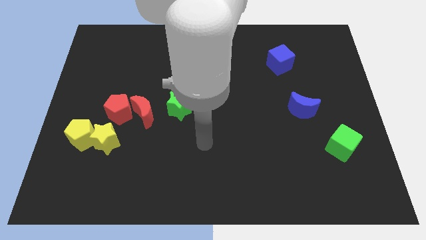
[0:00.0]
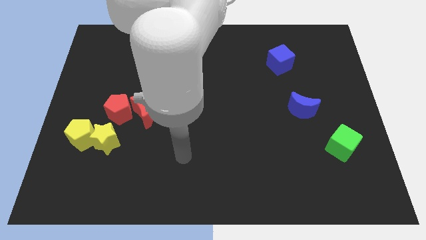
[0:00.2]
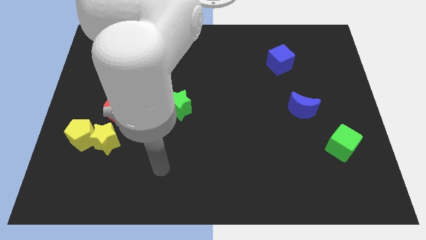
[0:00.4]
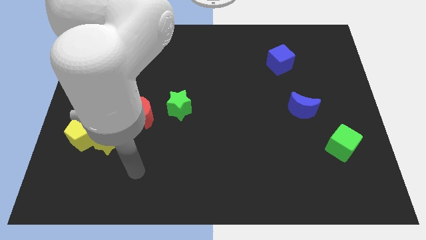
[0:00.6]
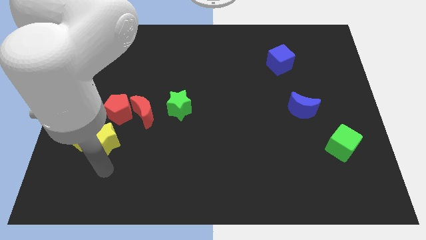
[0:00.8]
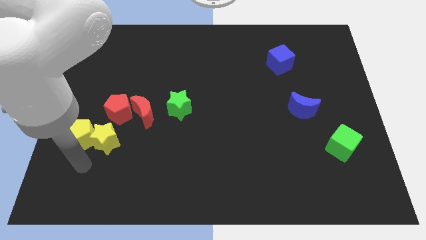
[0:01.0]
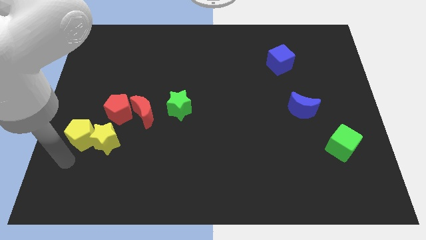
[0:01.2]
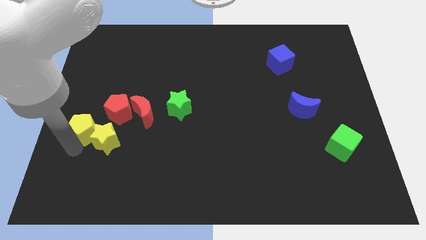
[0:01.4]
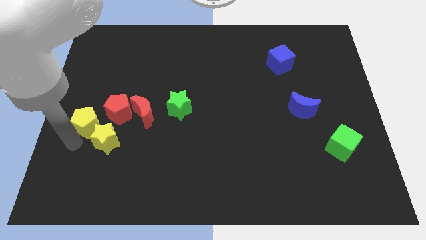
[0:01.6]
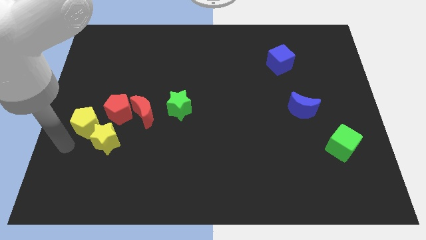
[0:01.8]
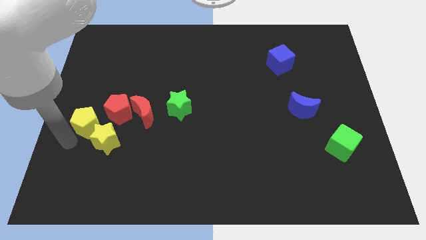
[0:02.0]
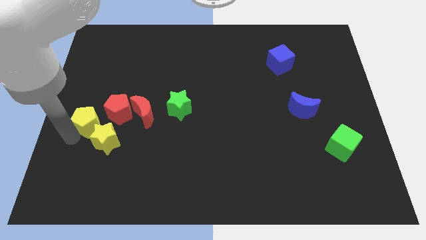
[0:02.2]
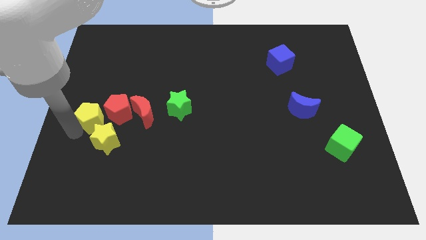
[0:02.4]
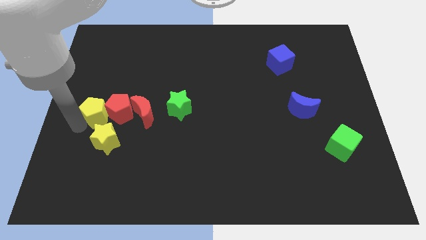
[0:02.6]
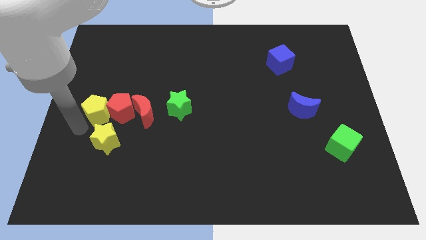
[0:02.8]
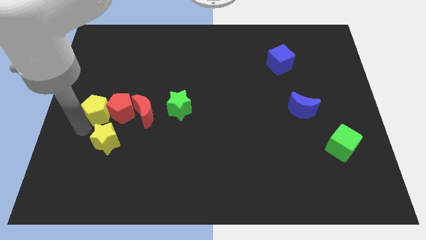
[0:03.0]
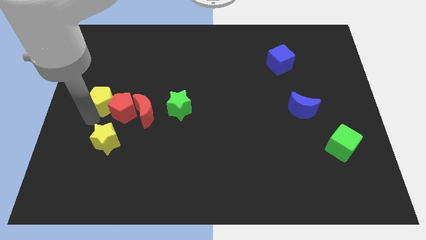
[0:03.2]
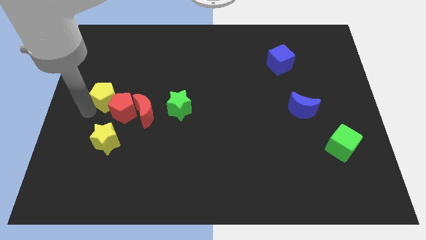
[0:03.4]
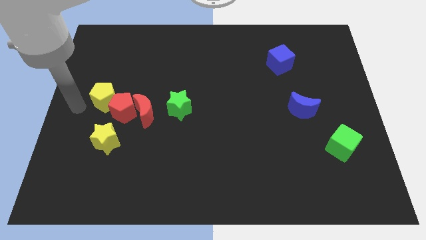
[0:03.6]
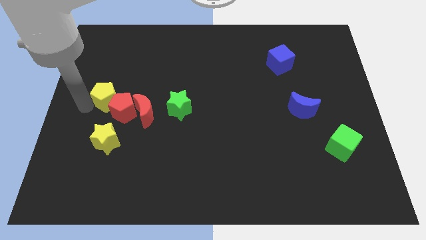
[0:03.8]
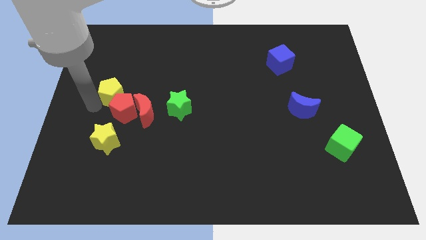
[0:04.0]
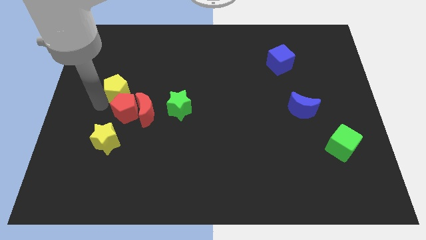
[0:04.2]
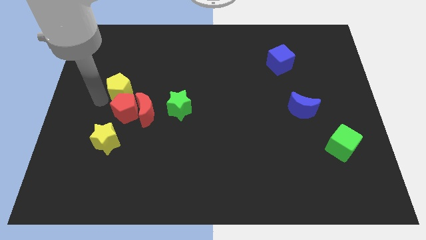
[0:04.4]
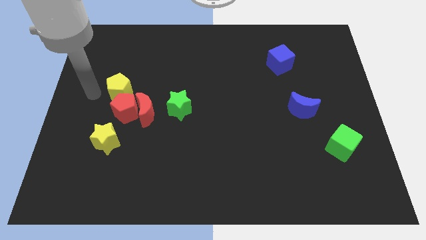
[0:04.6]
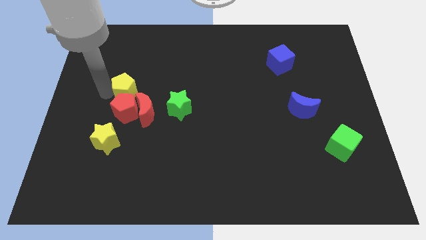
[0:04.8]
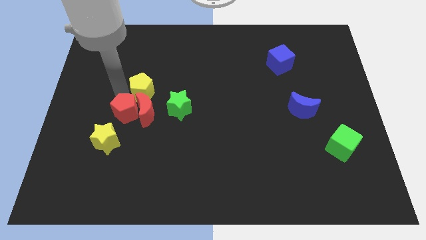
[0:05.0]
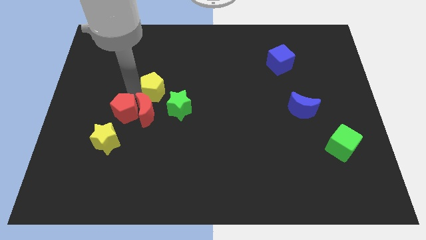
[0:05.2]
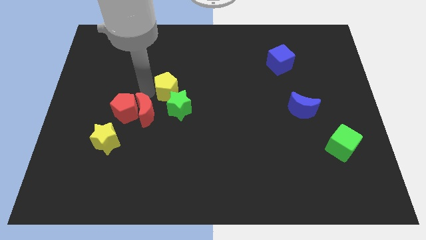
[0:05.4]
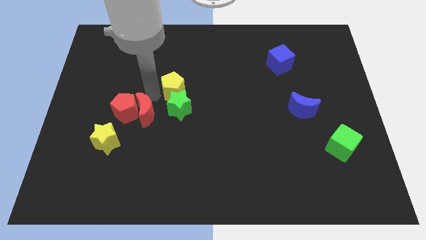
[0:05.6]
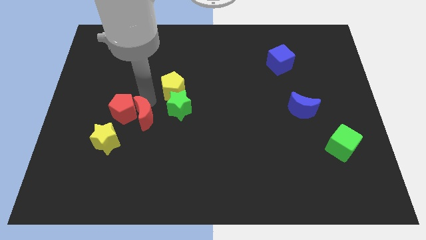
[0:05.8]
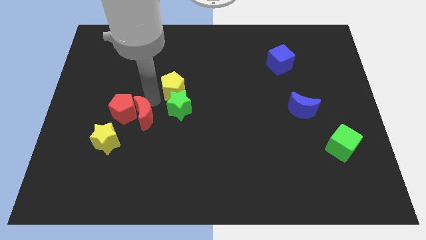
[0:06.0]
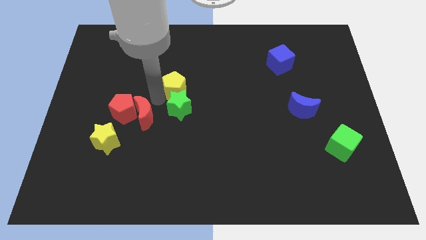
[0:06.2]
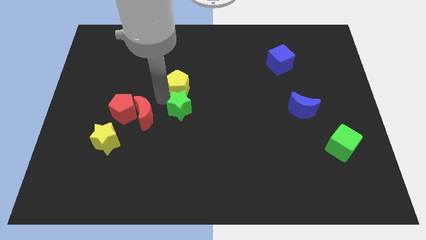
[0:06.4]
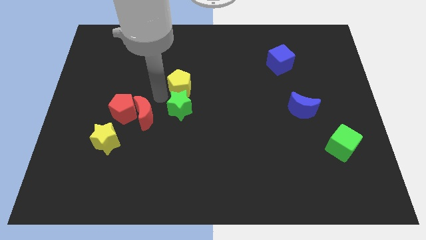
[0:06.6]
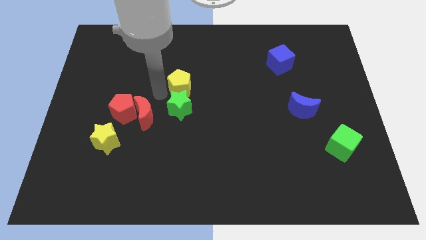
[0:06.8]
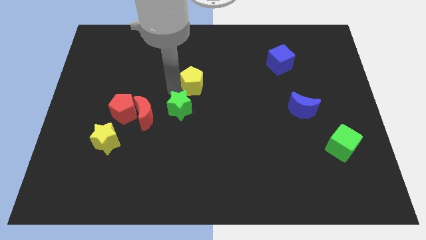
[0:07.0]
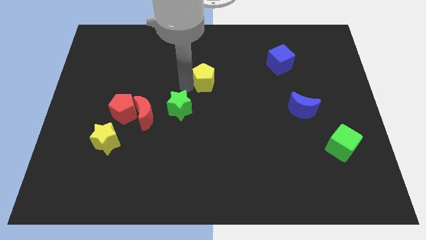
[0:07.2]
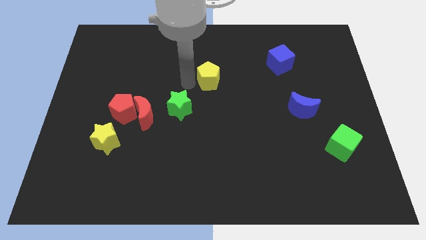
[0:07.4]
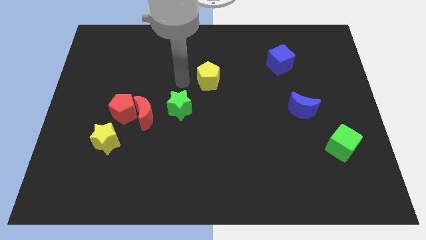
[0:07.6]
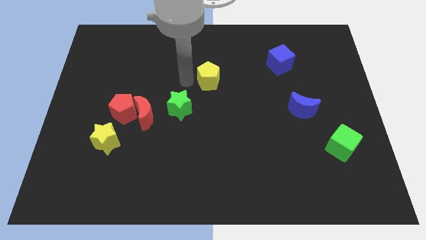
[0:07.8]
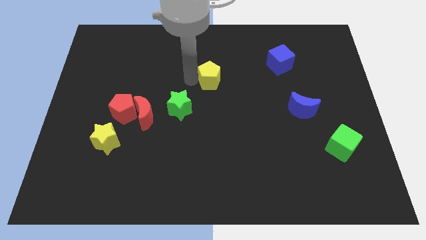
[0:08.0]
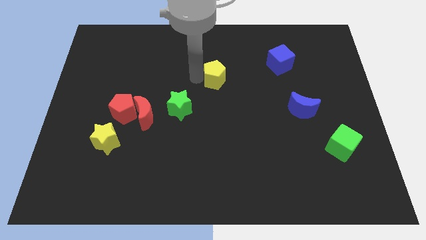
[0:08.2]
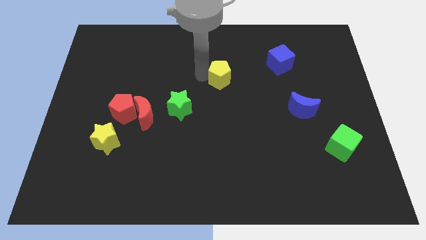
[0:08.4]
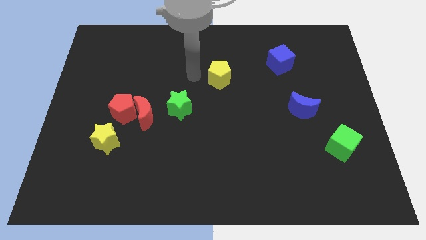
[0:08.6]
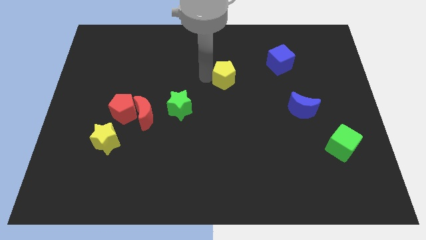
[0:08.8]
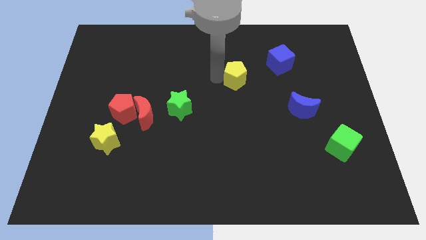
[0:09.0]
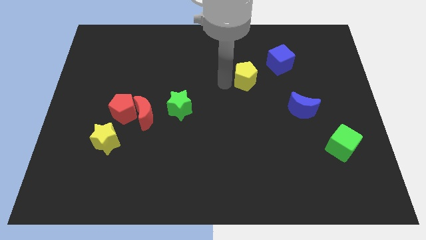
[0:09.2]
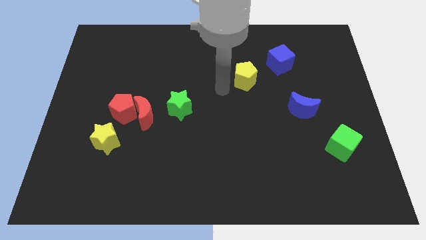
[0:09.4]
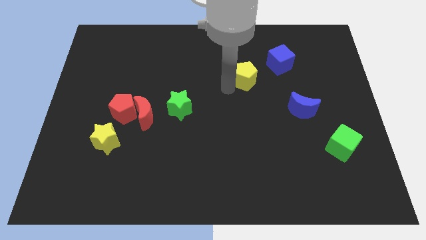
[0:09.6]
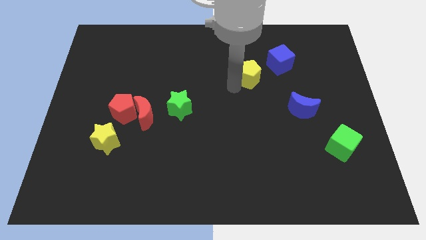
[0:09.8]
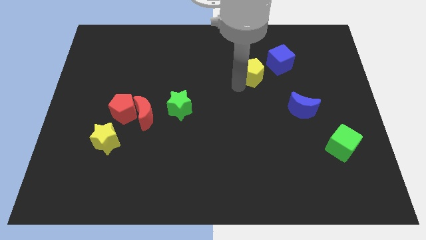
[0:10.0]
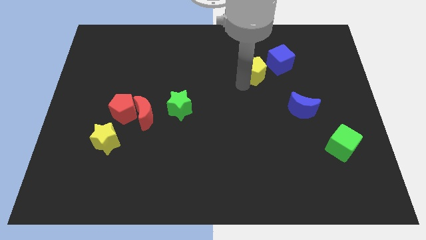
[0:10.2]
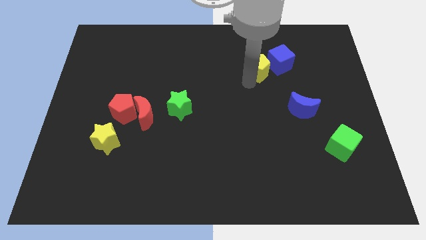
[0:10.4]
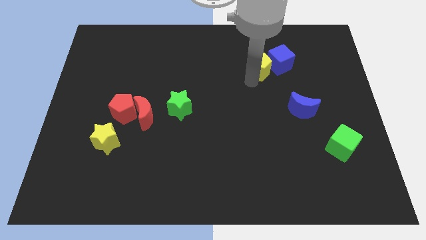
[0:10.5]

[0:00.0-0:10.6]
slide the yellow pentagon towards the blue cube

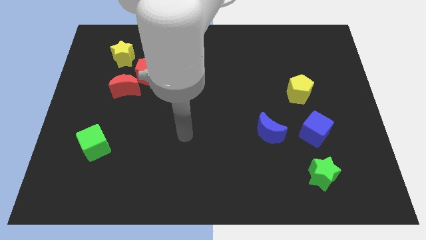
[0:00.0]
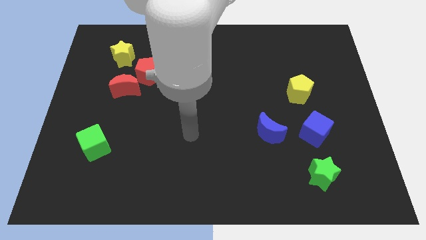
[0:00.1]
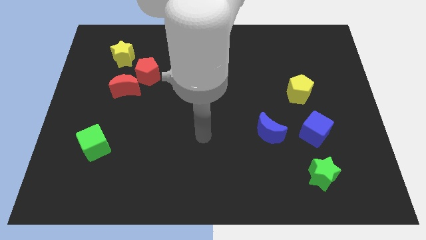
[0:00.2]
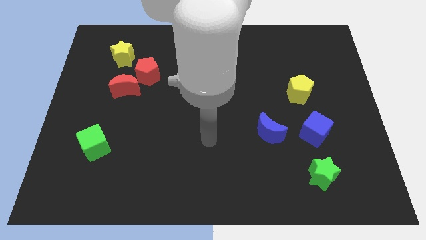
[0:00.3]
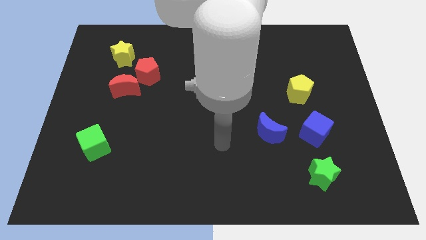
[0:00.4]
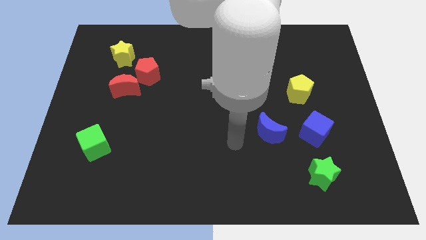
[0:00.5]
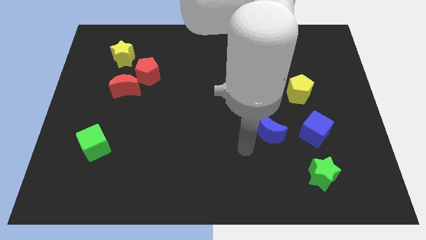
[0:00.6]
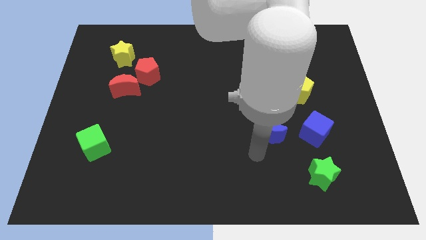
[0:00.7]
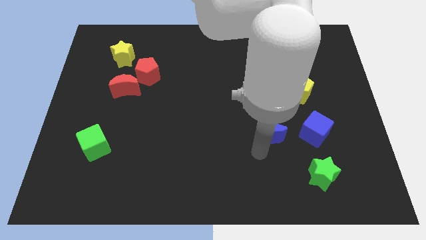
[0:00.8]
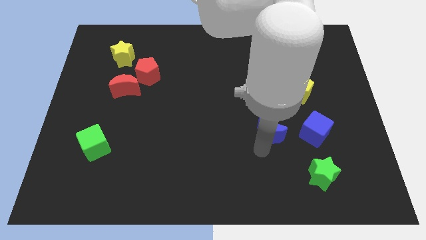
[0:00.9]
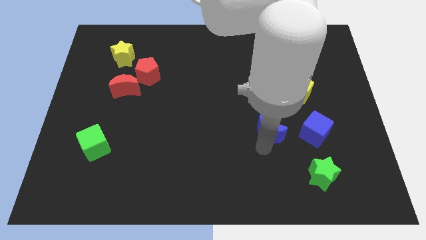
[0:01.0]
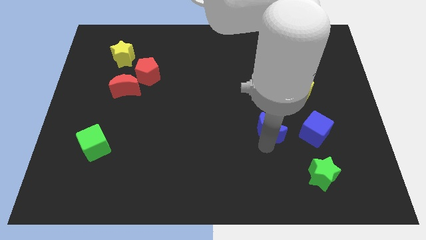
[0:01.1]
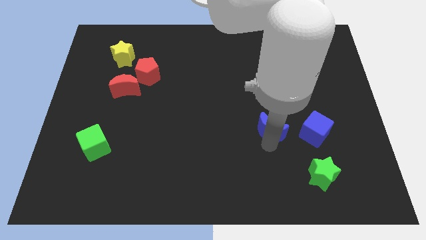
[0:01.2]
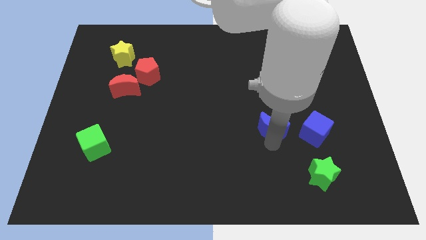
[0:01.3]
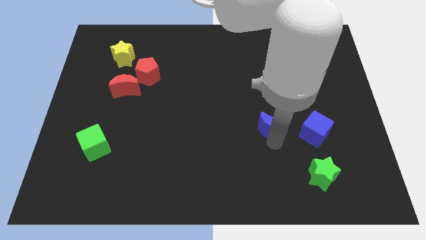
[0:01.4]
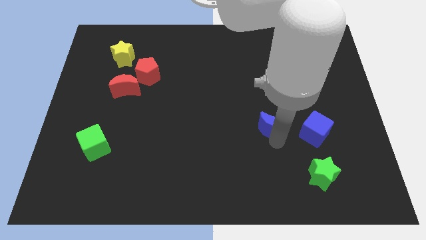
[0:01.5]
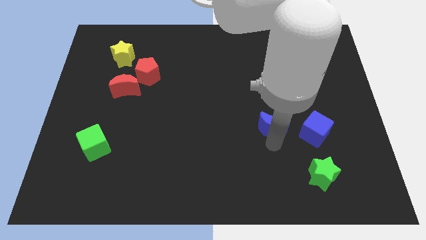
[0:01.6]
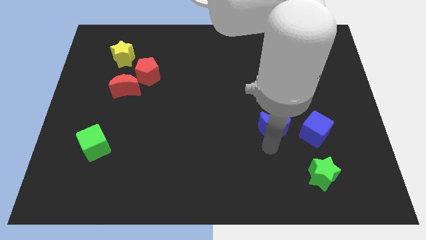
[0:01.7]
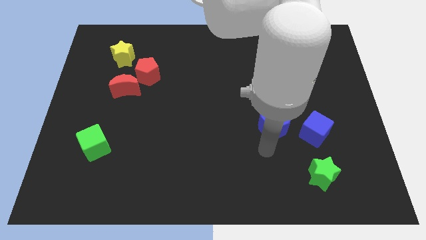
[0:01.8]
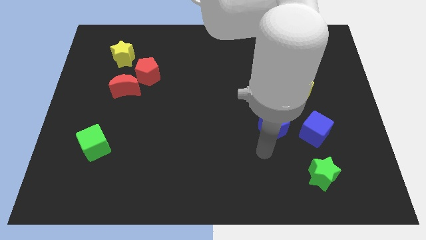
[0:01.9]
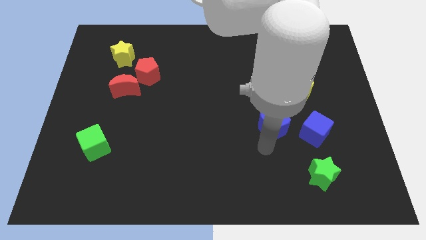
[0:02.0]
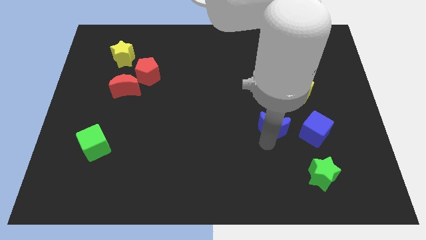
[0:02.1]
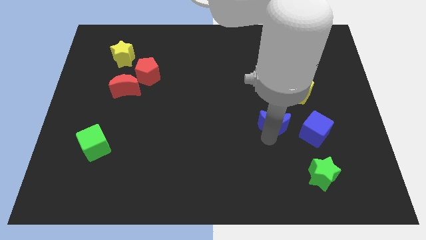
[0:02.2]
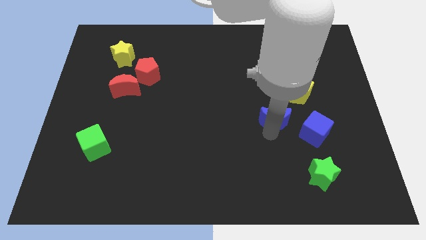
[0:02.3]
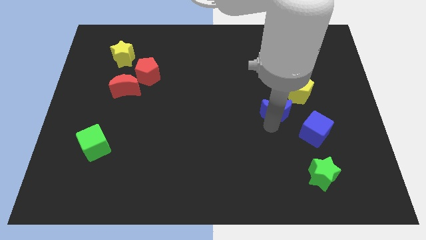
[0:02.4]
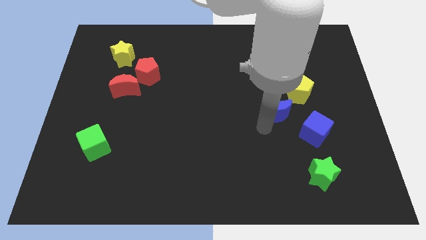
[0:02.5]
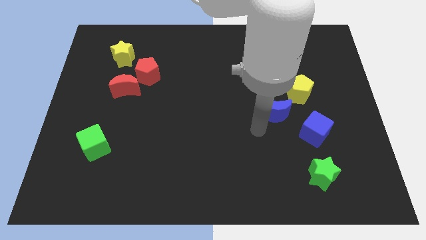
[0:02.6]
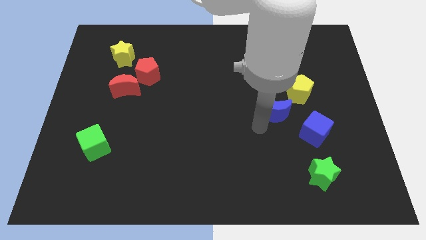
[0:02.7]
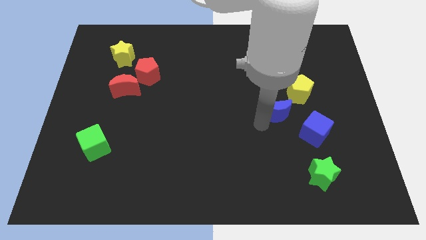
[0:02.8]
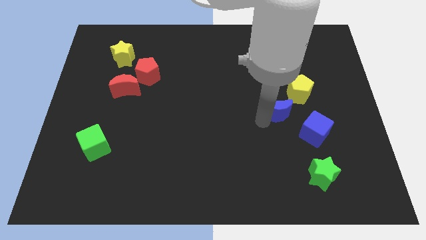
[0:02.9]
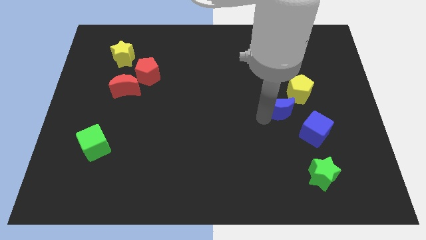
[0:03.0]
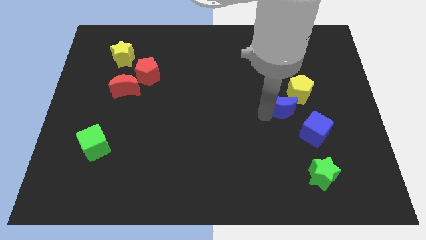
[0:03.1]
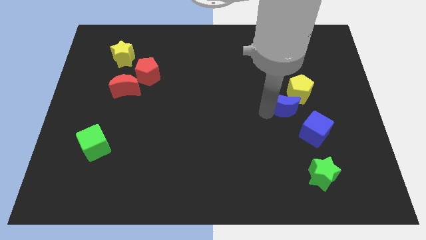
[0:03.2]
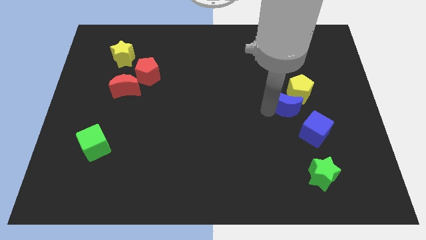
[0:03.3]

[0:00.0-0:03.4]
move the blue moon to the yellow pentagon

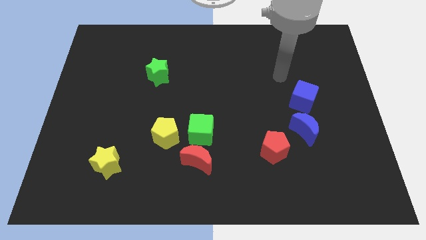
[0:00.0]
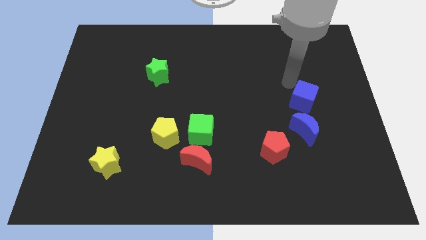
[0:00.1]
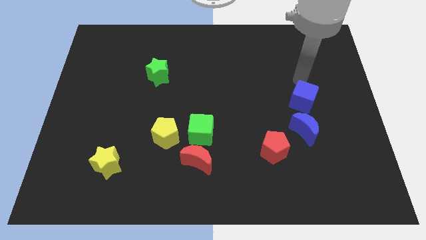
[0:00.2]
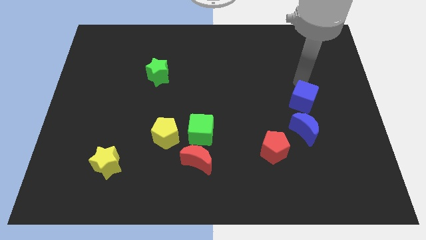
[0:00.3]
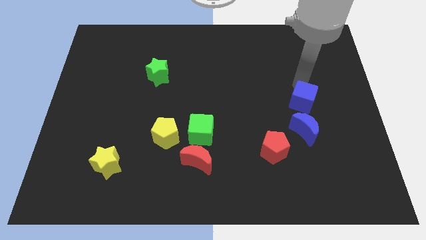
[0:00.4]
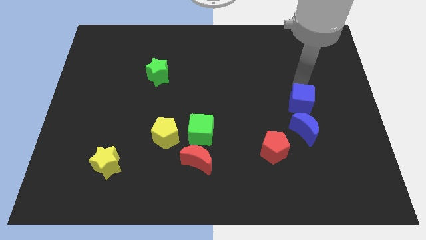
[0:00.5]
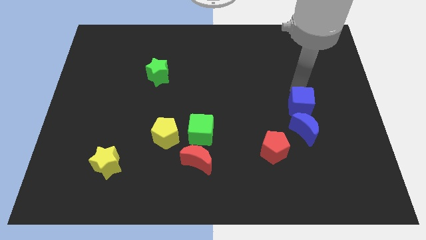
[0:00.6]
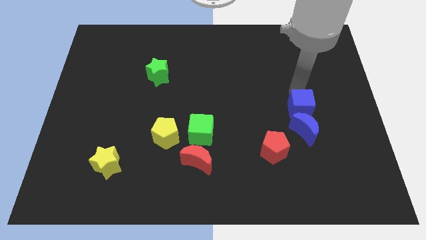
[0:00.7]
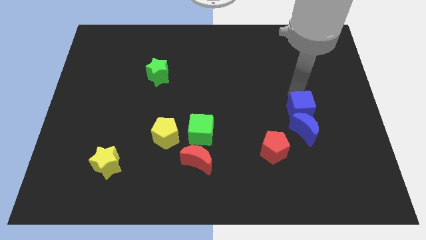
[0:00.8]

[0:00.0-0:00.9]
slide the blue cube towards the blue moon
